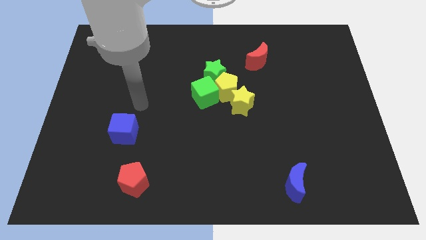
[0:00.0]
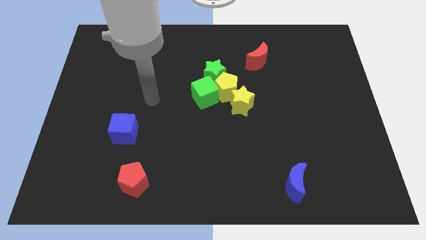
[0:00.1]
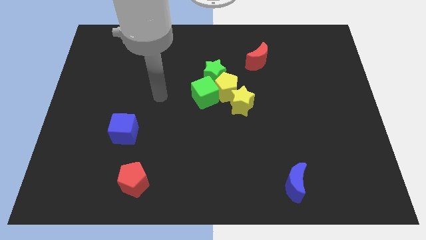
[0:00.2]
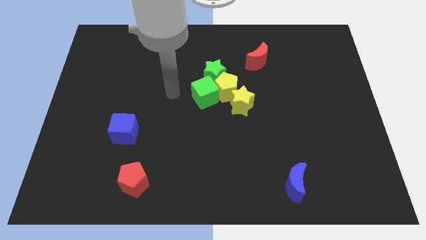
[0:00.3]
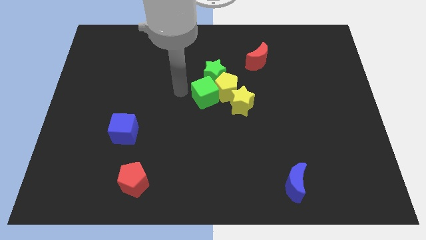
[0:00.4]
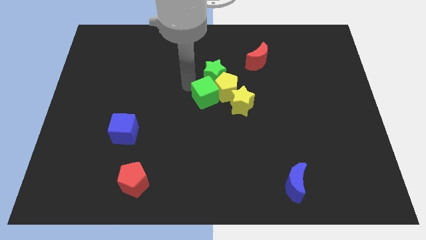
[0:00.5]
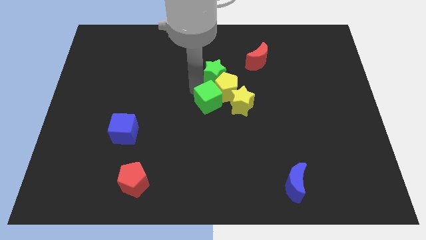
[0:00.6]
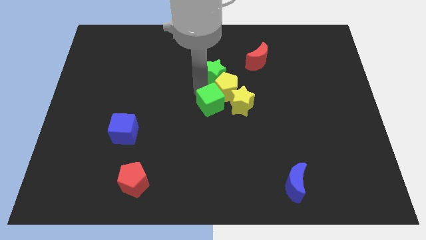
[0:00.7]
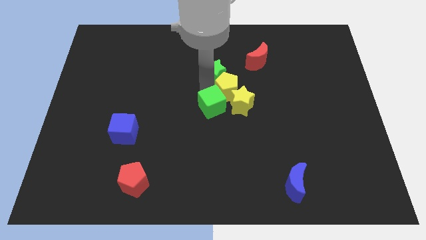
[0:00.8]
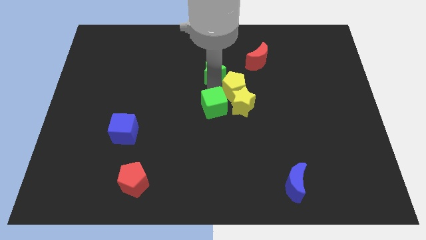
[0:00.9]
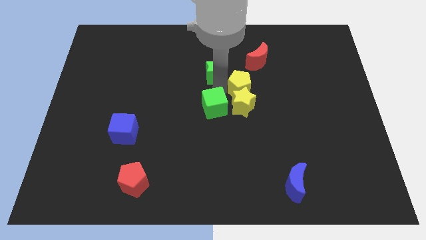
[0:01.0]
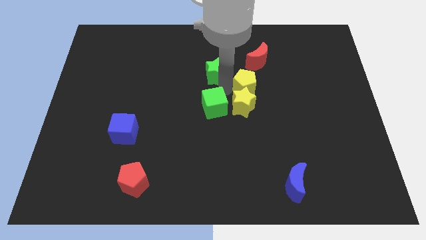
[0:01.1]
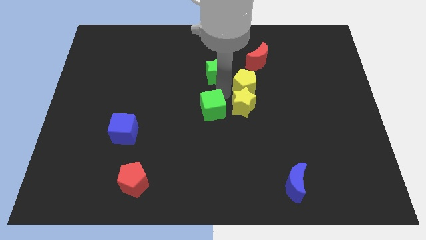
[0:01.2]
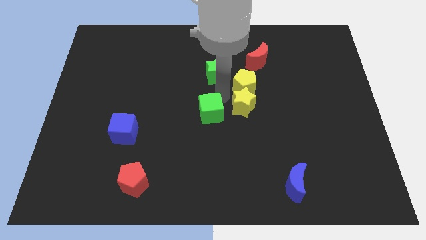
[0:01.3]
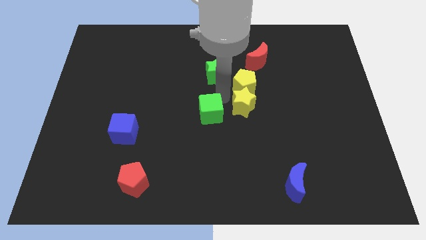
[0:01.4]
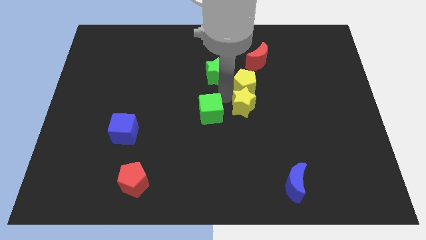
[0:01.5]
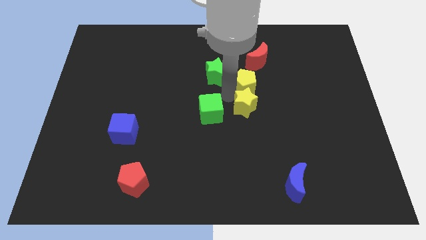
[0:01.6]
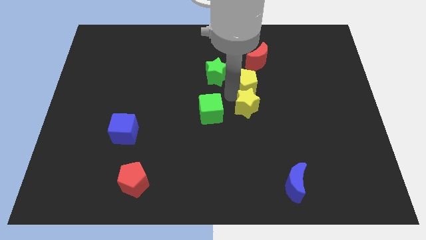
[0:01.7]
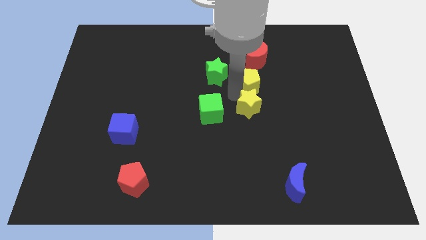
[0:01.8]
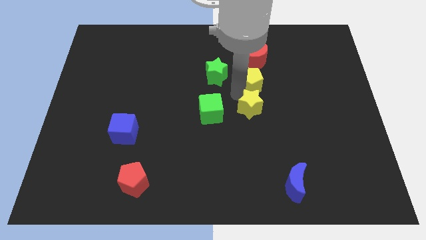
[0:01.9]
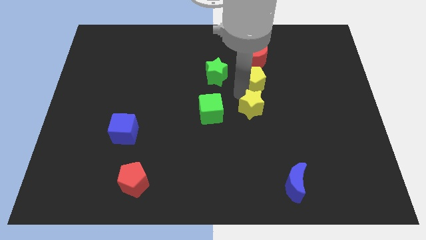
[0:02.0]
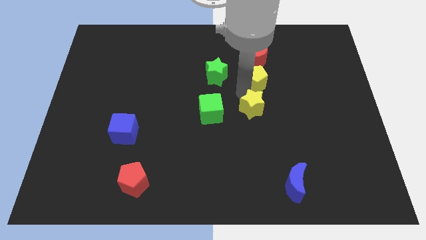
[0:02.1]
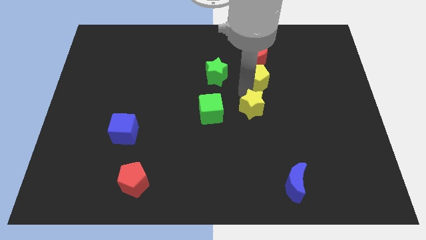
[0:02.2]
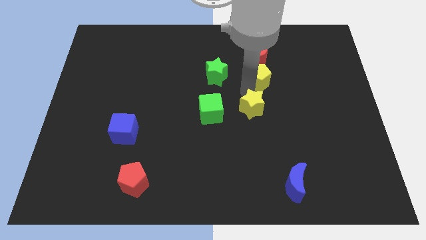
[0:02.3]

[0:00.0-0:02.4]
separate the yellow pentagon from the clump

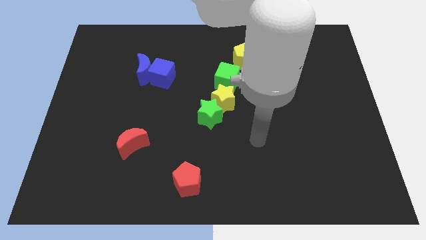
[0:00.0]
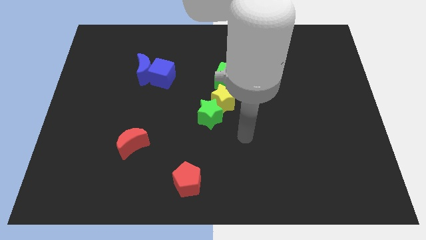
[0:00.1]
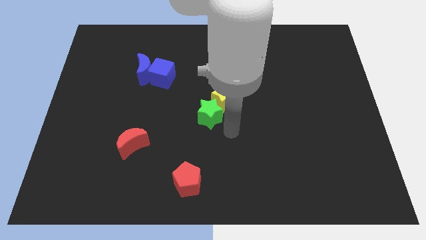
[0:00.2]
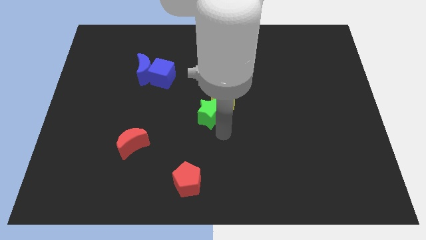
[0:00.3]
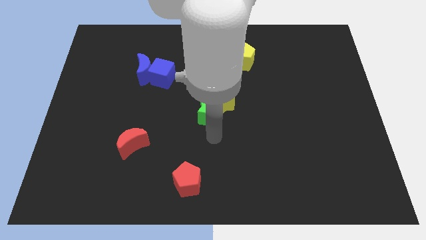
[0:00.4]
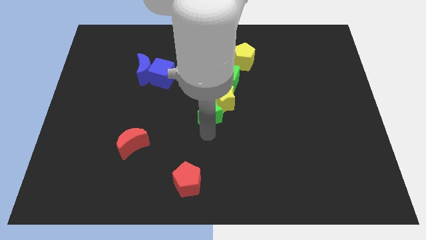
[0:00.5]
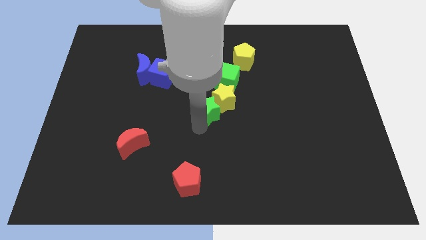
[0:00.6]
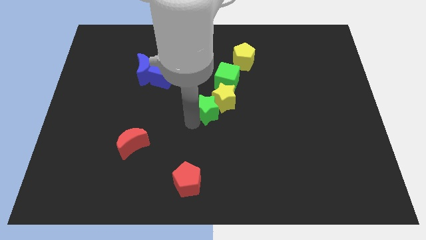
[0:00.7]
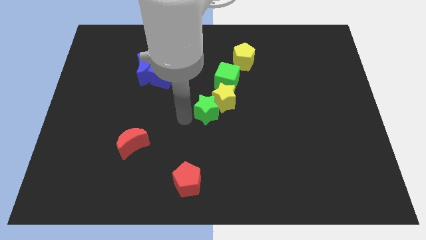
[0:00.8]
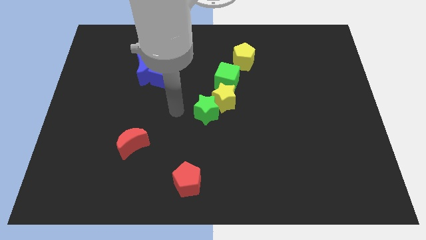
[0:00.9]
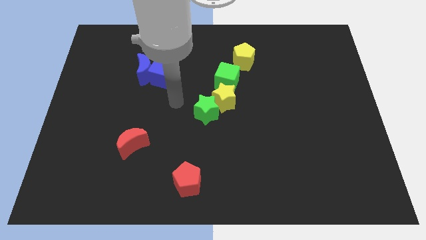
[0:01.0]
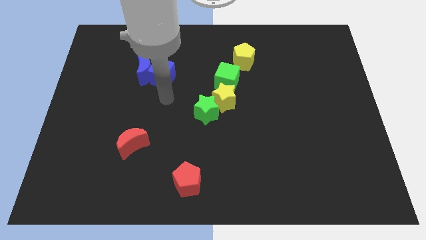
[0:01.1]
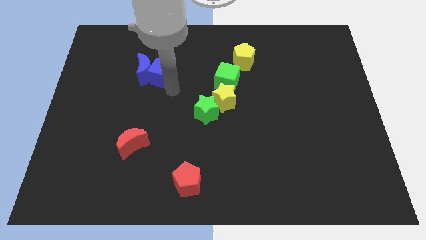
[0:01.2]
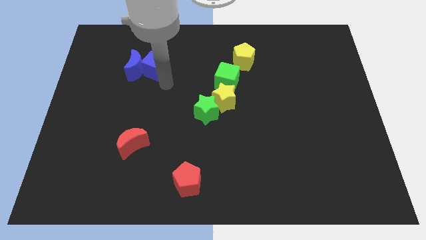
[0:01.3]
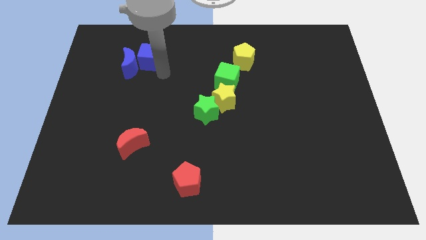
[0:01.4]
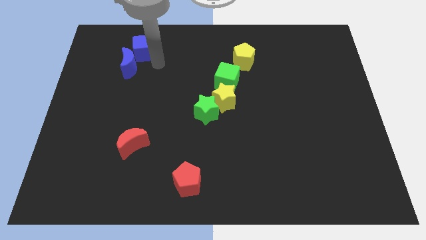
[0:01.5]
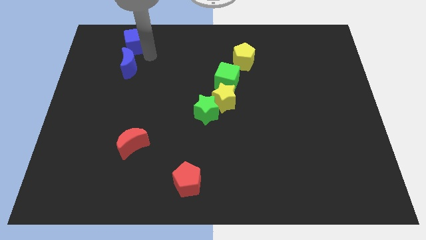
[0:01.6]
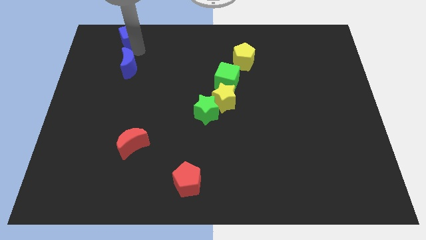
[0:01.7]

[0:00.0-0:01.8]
pull the blue moon apart from the blue cube

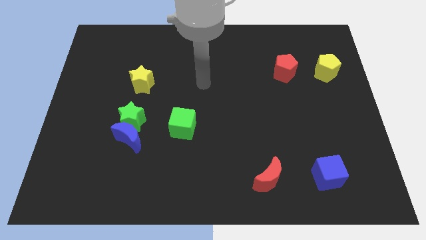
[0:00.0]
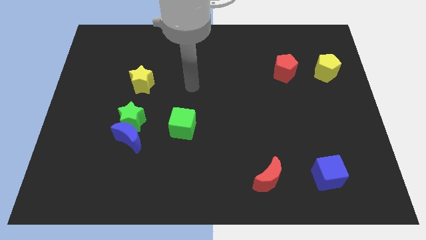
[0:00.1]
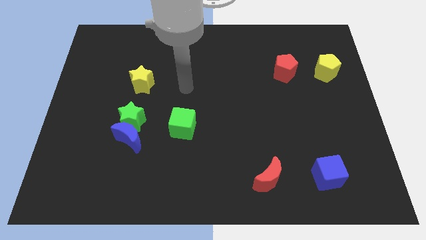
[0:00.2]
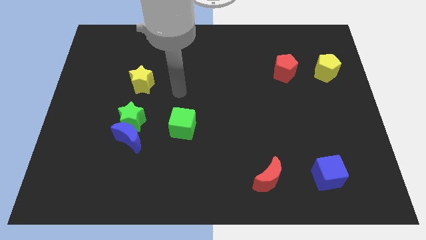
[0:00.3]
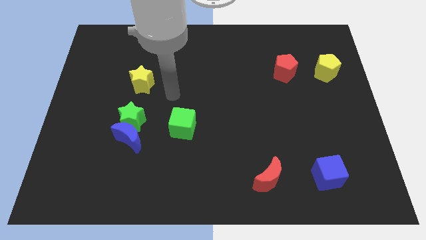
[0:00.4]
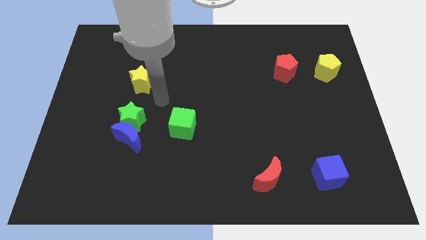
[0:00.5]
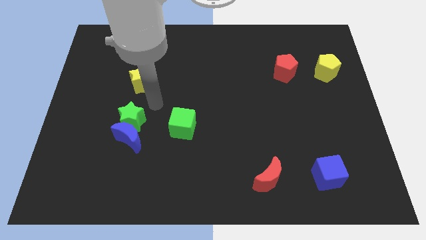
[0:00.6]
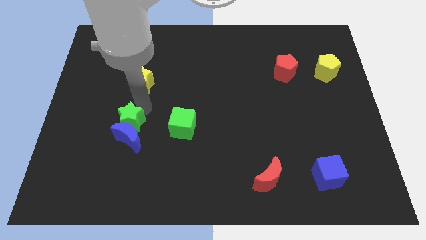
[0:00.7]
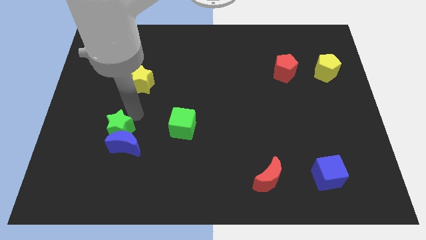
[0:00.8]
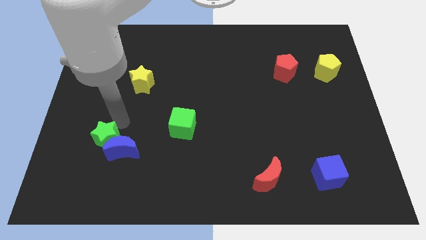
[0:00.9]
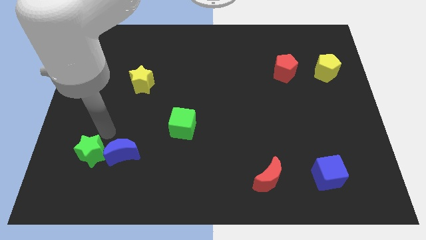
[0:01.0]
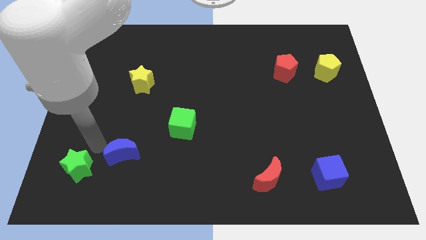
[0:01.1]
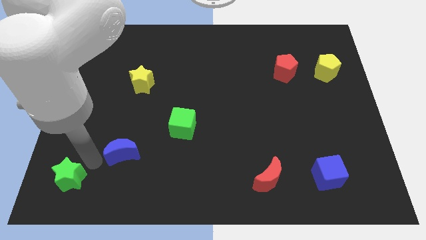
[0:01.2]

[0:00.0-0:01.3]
separate the blue moon from the green star

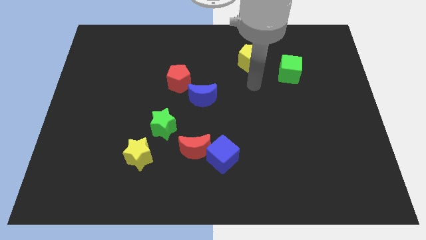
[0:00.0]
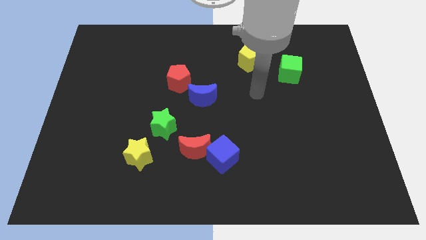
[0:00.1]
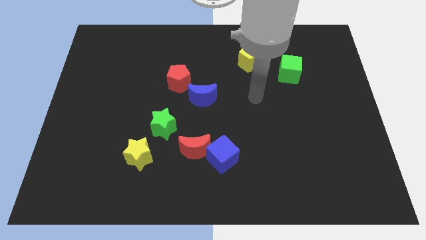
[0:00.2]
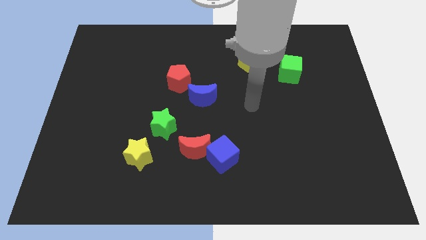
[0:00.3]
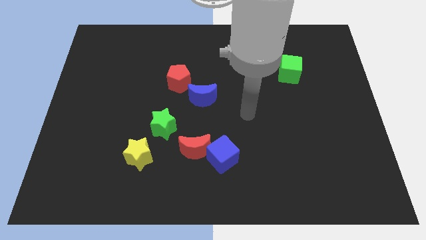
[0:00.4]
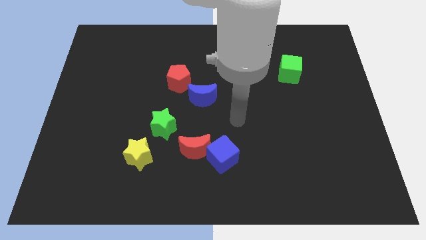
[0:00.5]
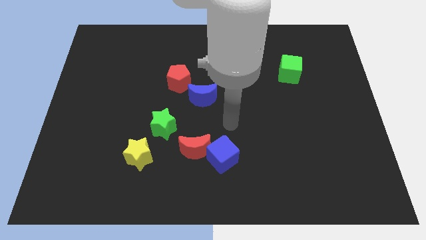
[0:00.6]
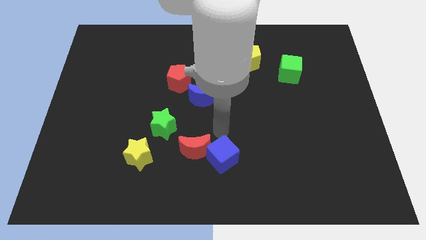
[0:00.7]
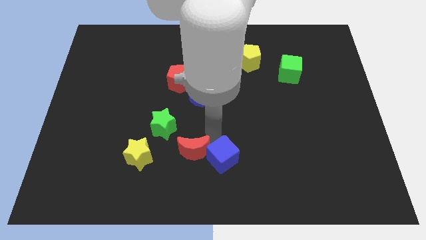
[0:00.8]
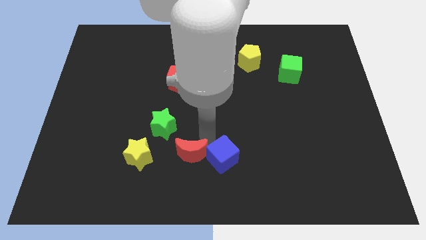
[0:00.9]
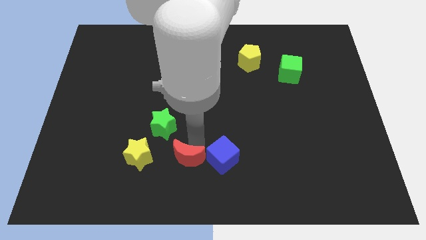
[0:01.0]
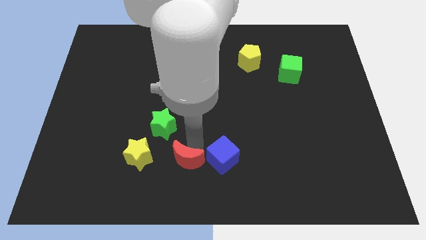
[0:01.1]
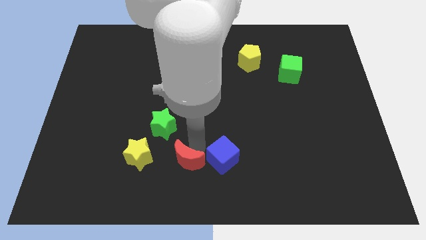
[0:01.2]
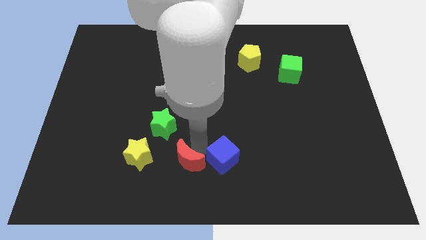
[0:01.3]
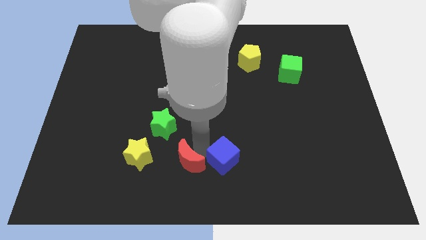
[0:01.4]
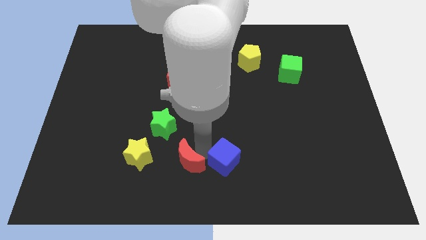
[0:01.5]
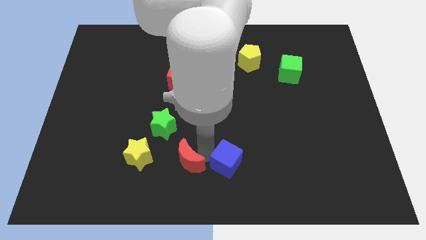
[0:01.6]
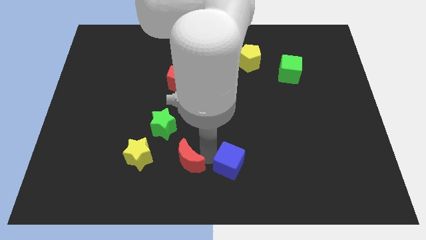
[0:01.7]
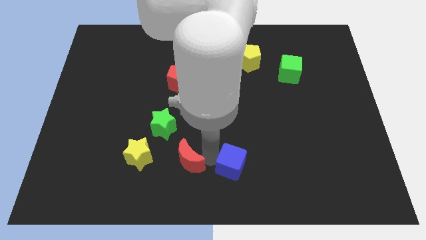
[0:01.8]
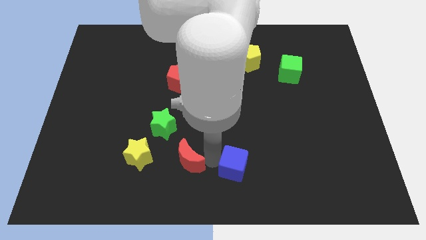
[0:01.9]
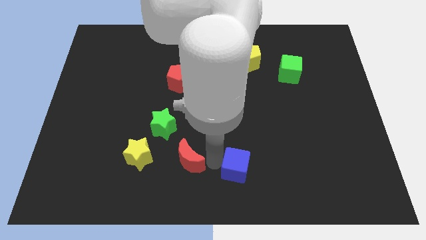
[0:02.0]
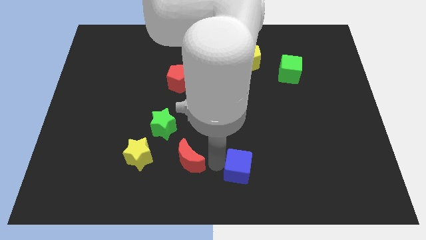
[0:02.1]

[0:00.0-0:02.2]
move the blue cube away from the red moon

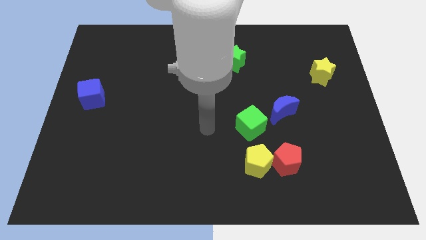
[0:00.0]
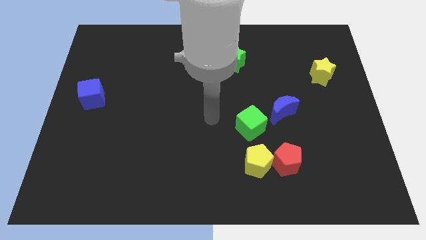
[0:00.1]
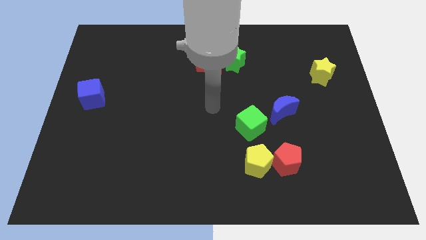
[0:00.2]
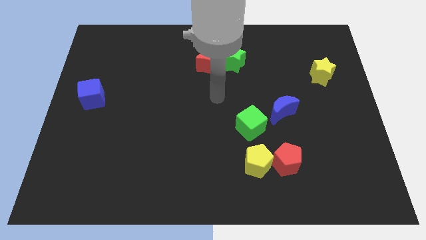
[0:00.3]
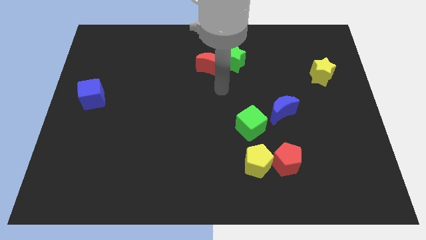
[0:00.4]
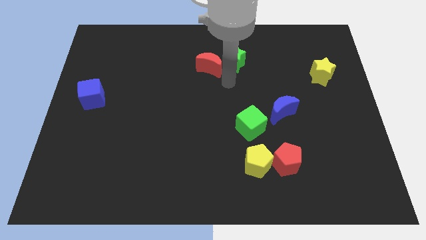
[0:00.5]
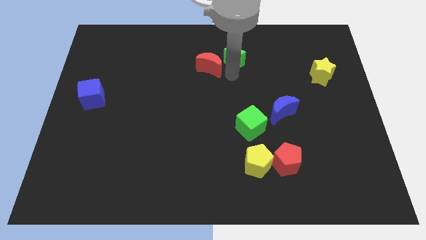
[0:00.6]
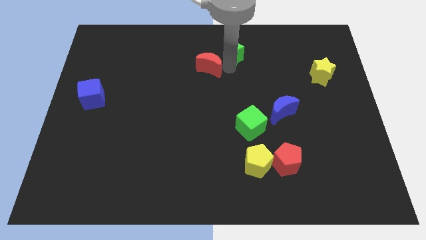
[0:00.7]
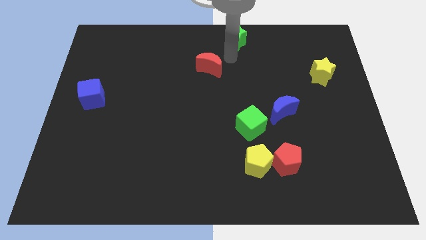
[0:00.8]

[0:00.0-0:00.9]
pull the red moon apart from the green star

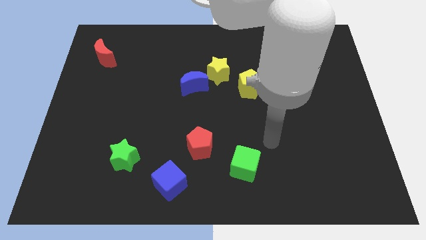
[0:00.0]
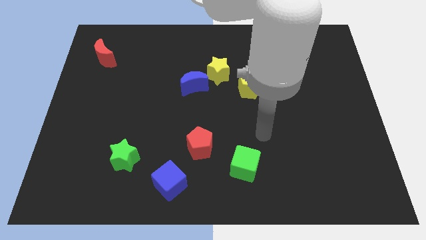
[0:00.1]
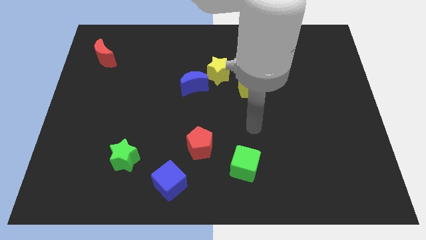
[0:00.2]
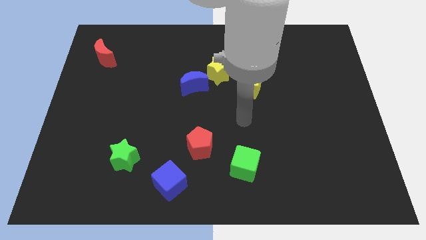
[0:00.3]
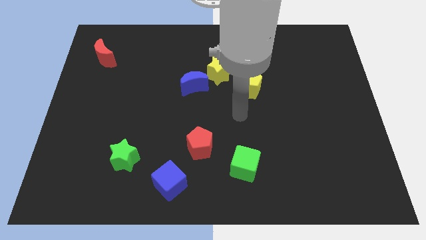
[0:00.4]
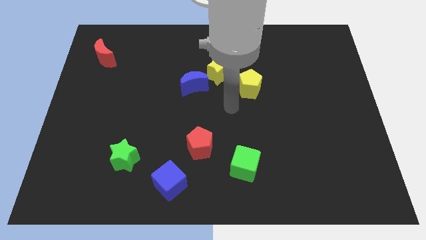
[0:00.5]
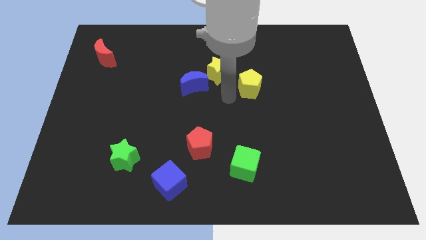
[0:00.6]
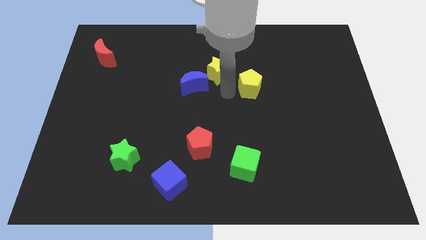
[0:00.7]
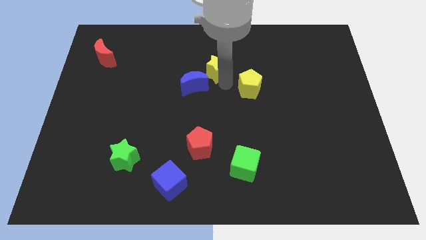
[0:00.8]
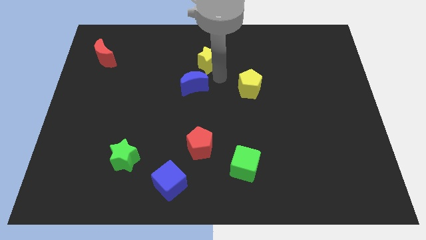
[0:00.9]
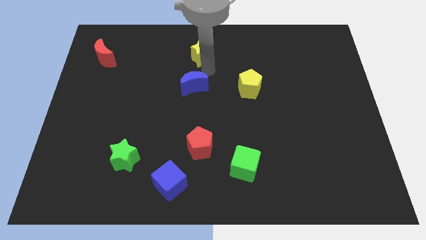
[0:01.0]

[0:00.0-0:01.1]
separate the blue moon from the yellow star
